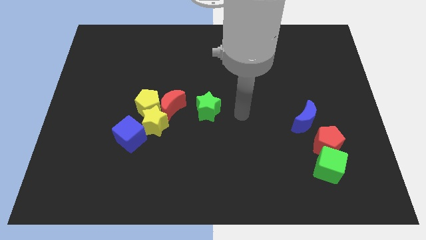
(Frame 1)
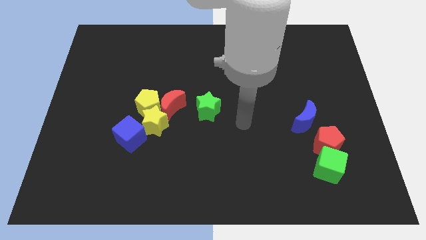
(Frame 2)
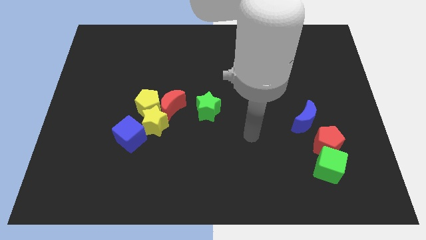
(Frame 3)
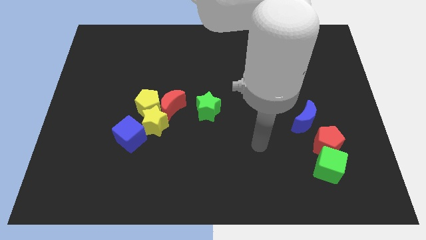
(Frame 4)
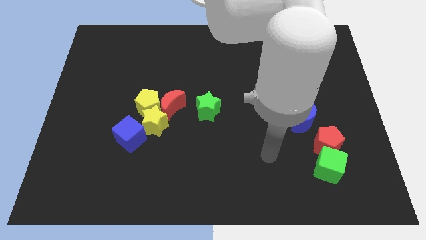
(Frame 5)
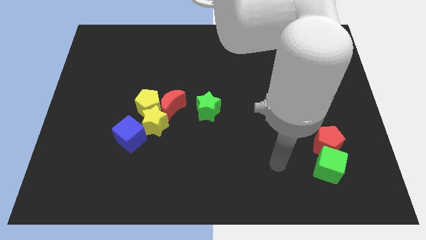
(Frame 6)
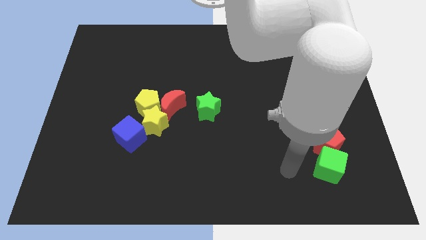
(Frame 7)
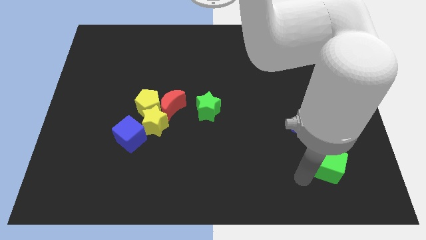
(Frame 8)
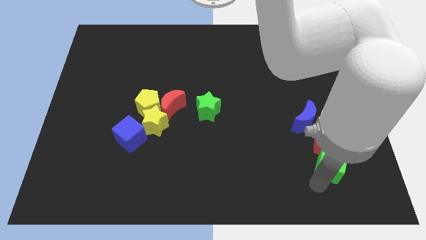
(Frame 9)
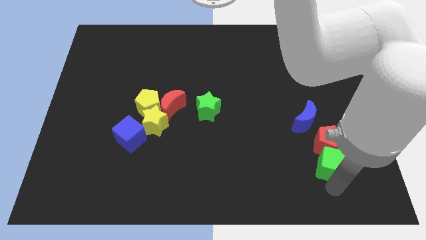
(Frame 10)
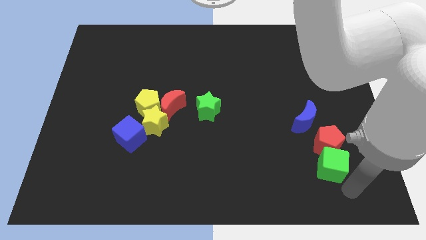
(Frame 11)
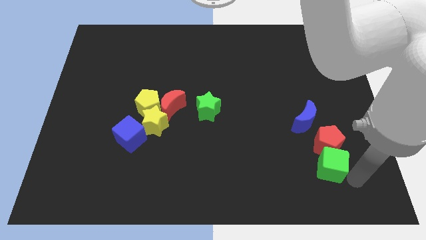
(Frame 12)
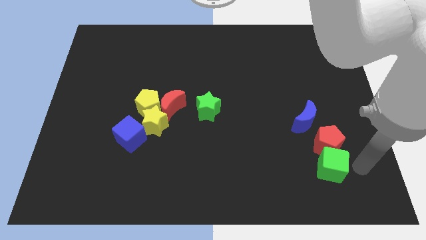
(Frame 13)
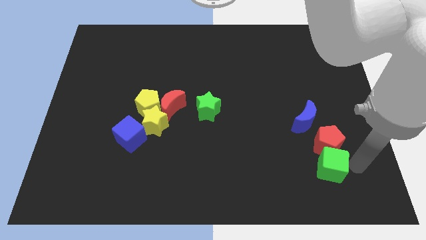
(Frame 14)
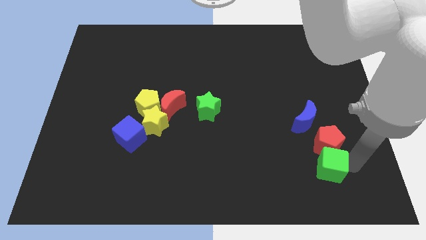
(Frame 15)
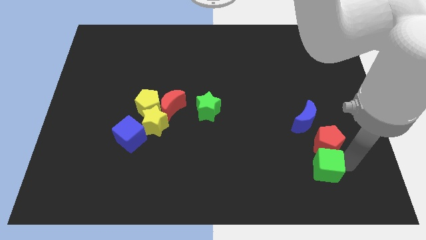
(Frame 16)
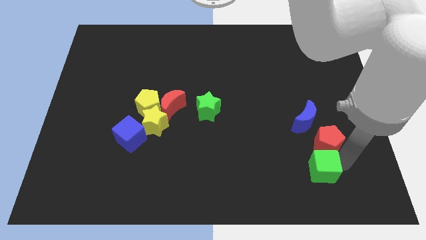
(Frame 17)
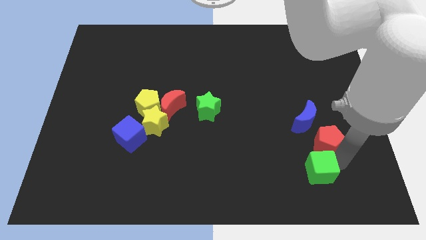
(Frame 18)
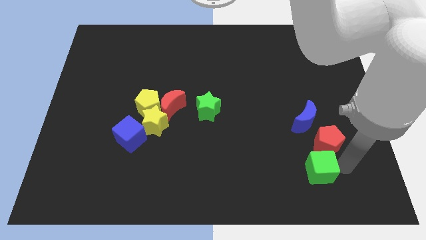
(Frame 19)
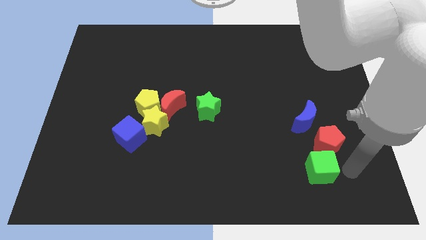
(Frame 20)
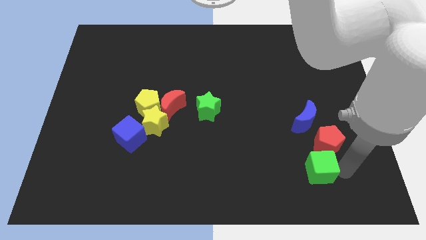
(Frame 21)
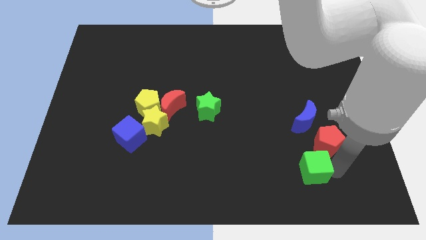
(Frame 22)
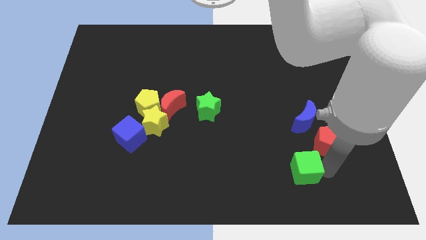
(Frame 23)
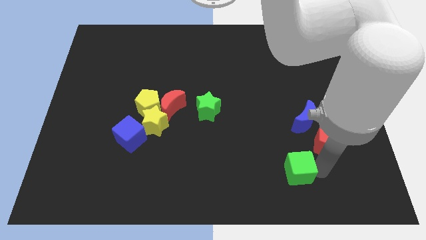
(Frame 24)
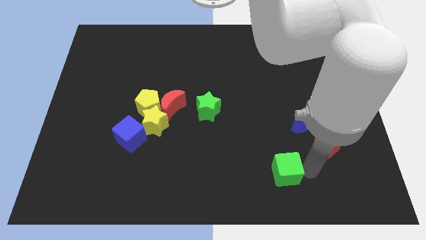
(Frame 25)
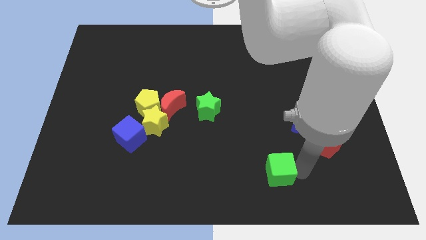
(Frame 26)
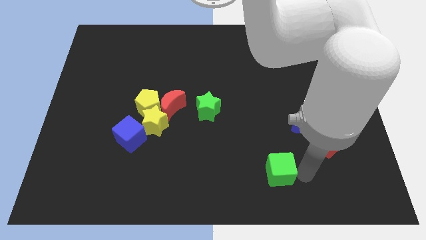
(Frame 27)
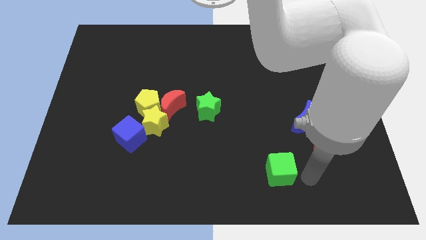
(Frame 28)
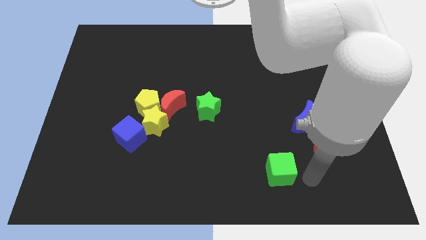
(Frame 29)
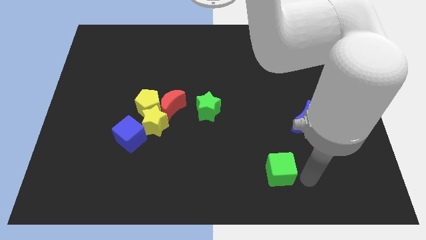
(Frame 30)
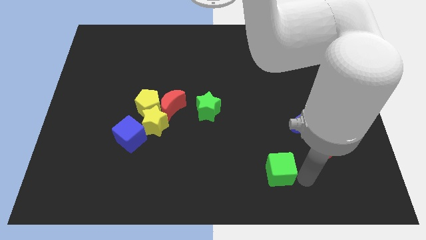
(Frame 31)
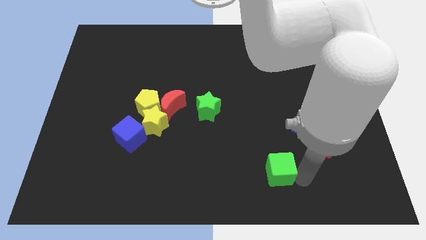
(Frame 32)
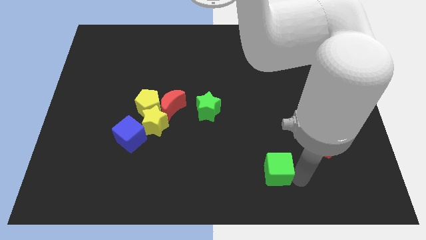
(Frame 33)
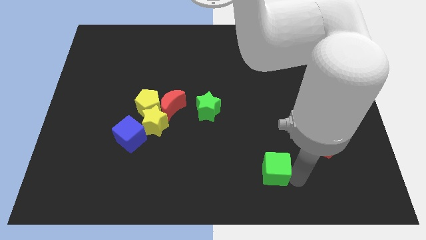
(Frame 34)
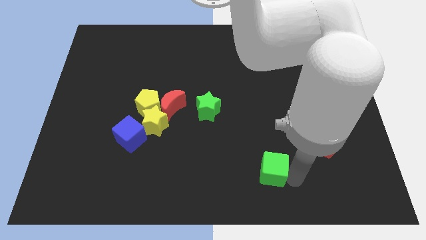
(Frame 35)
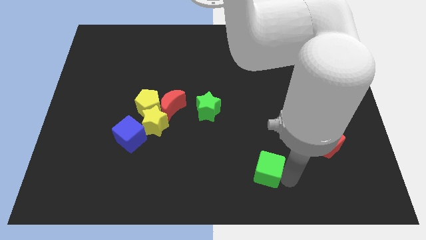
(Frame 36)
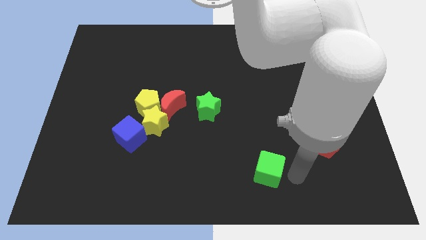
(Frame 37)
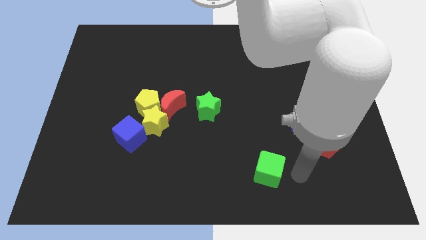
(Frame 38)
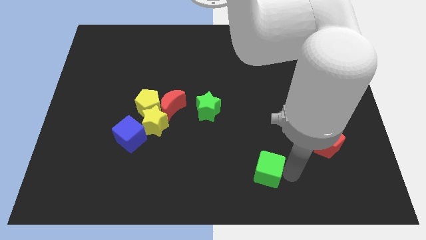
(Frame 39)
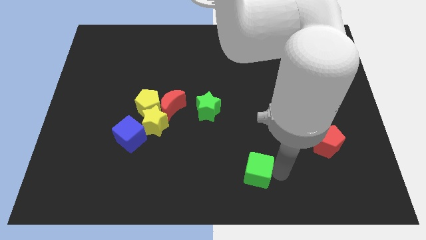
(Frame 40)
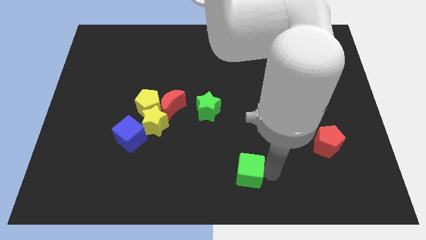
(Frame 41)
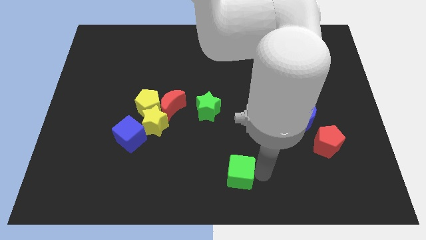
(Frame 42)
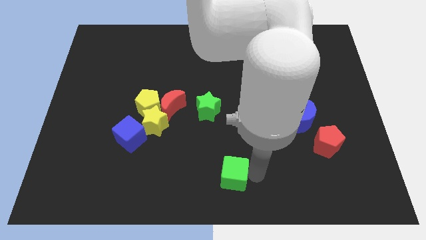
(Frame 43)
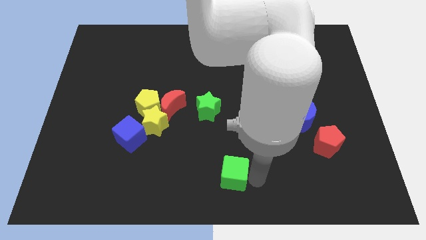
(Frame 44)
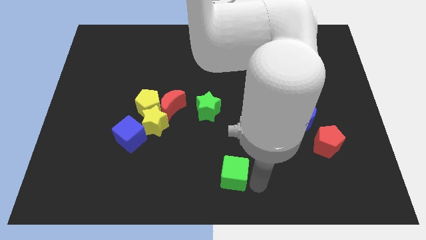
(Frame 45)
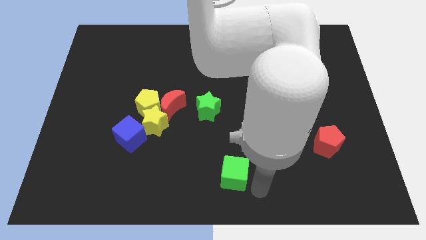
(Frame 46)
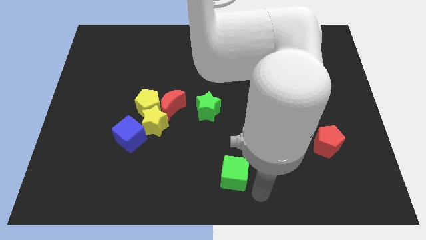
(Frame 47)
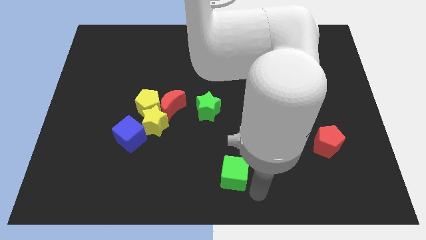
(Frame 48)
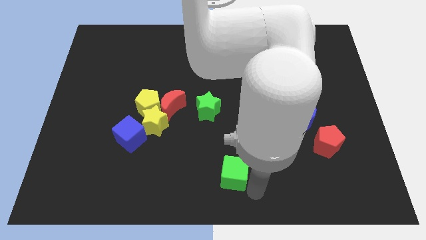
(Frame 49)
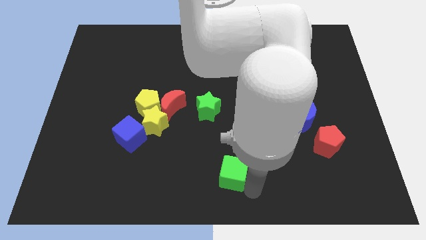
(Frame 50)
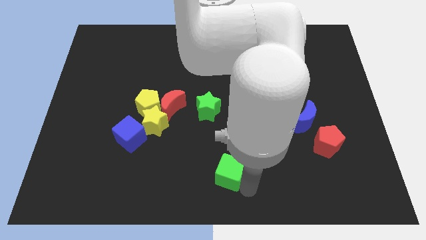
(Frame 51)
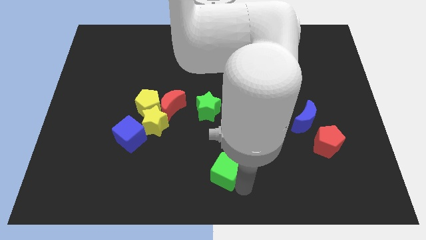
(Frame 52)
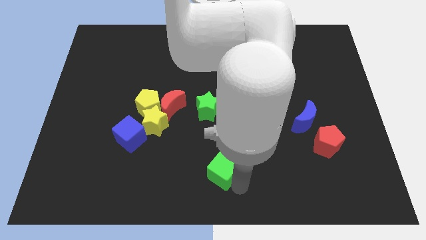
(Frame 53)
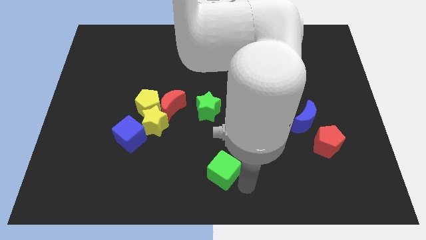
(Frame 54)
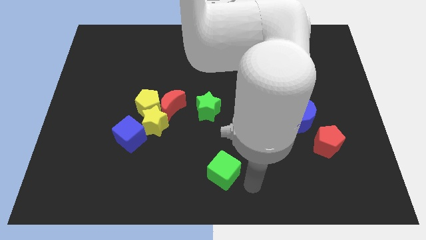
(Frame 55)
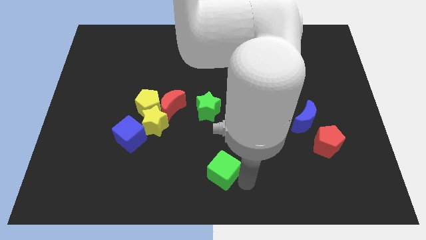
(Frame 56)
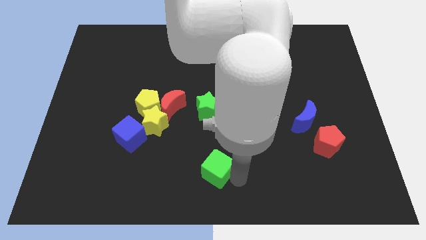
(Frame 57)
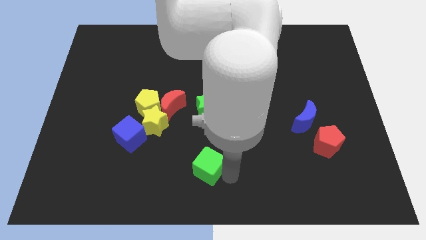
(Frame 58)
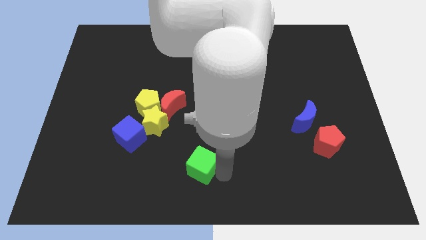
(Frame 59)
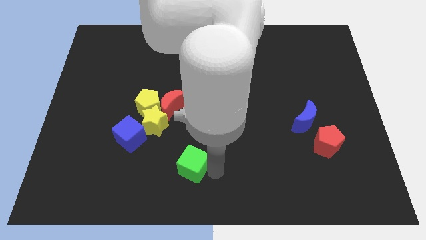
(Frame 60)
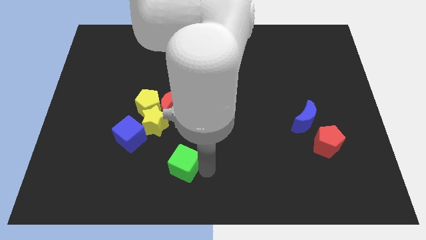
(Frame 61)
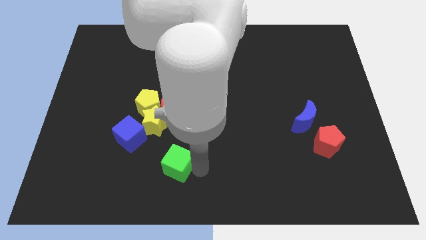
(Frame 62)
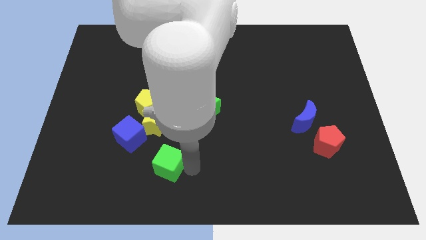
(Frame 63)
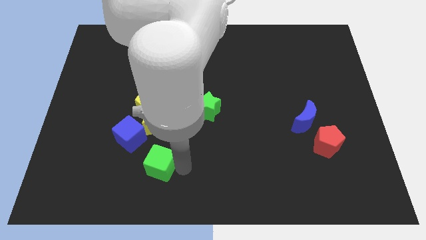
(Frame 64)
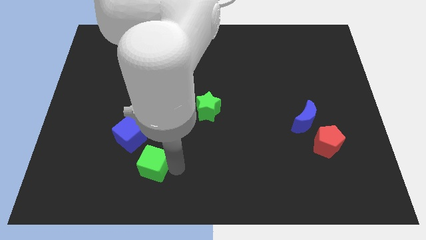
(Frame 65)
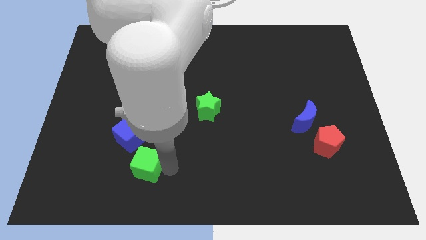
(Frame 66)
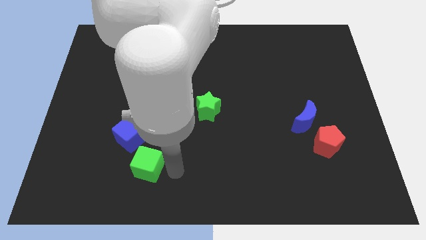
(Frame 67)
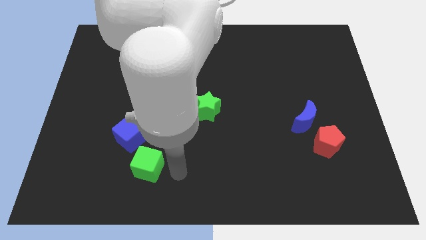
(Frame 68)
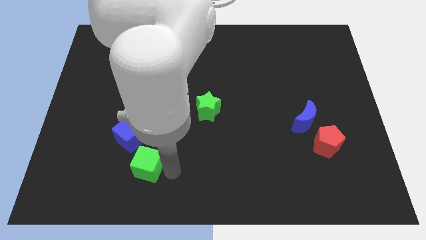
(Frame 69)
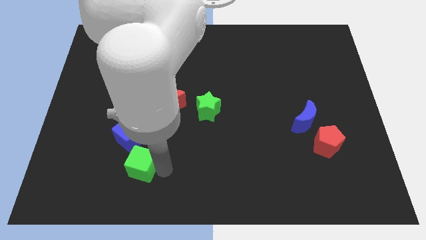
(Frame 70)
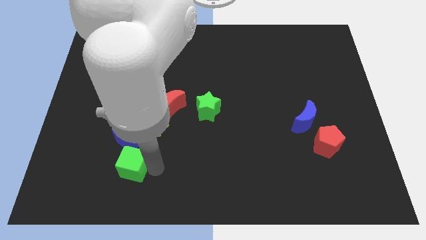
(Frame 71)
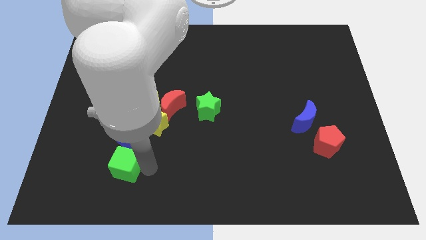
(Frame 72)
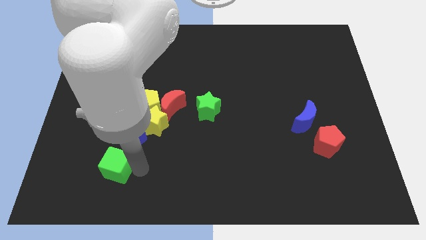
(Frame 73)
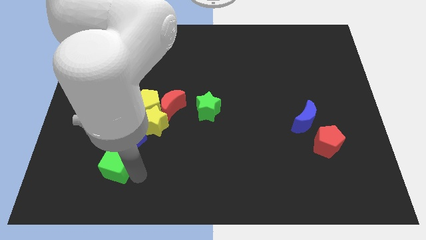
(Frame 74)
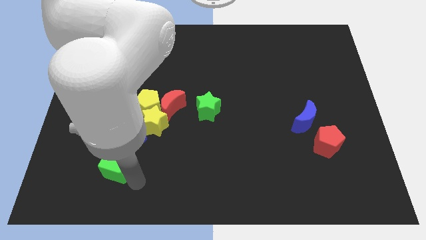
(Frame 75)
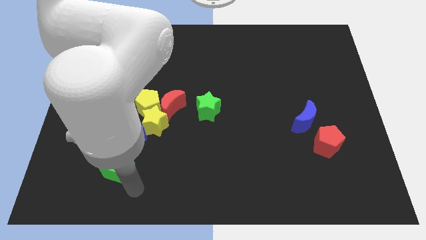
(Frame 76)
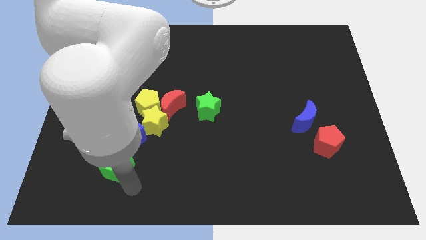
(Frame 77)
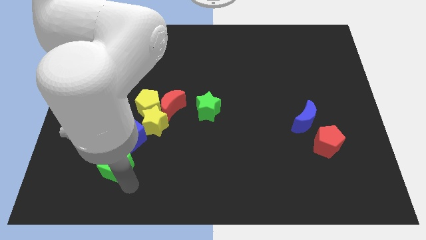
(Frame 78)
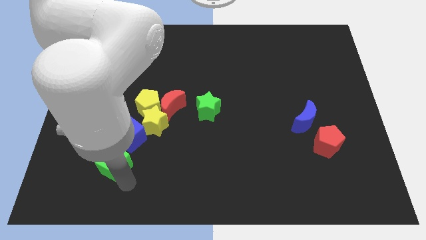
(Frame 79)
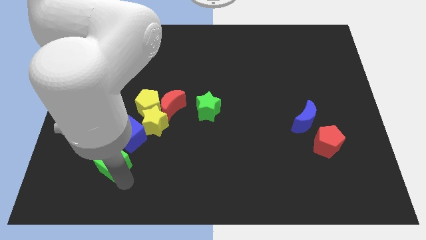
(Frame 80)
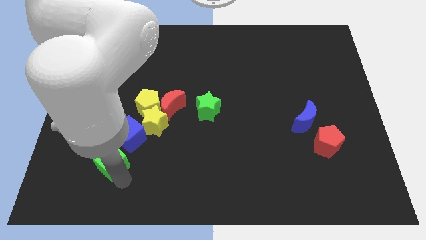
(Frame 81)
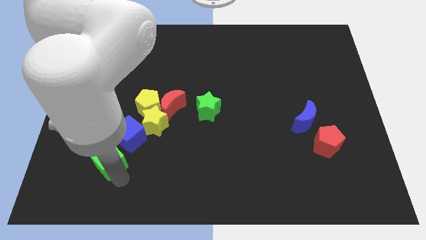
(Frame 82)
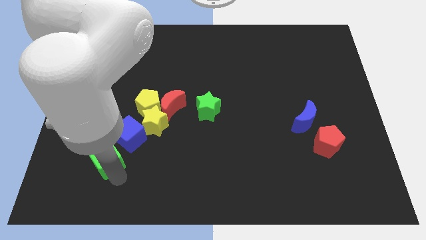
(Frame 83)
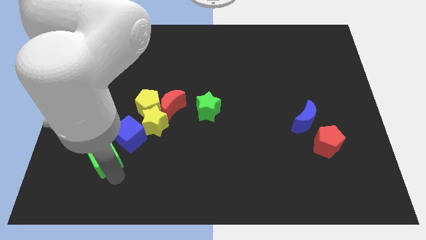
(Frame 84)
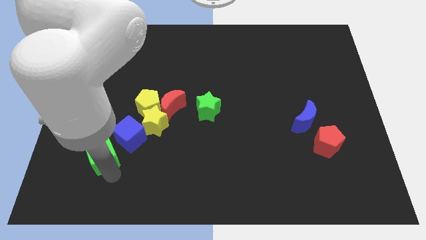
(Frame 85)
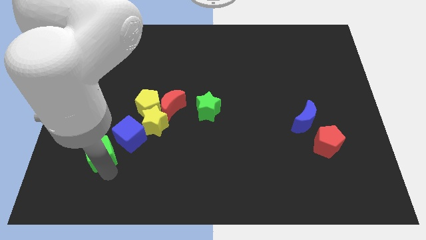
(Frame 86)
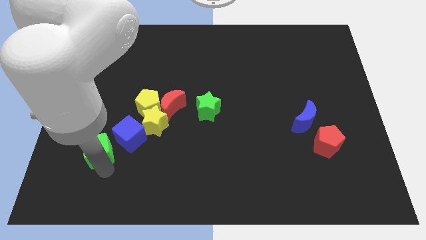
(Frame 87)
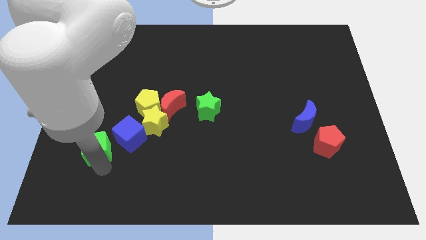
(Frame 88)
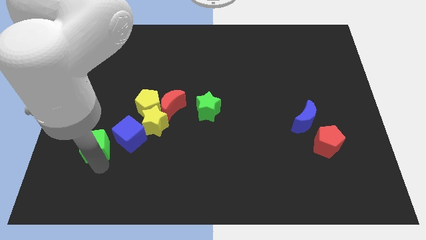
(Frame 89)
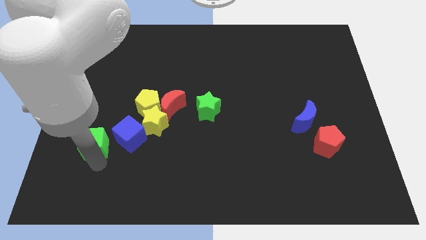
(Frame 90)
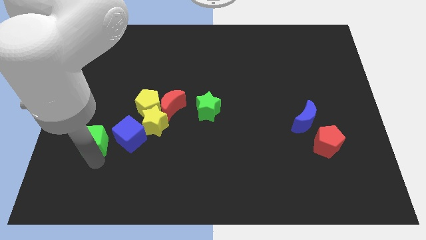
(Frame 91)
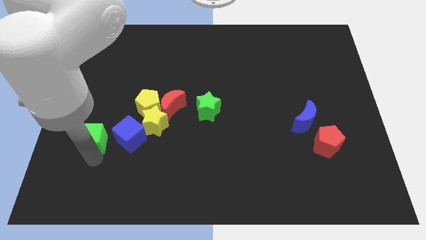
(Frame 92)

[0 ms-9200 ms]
push the green cube left of the yellow star
